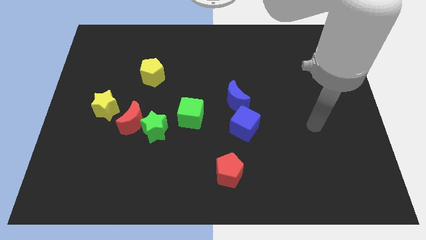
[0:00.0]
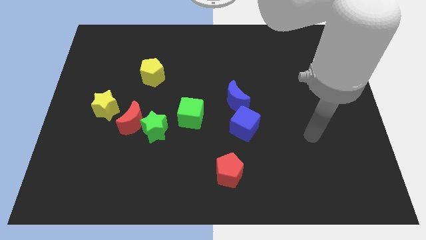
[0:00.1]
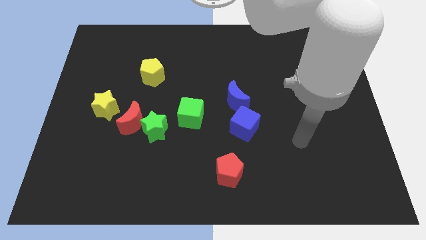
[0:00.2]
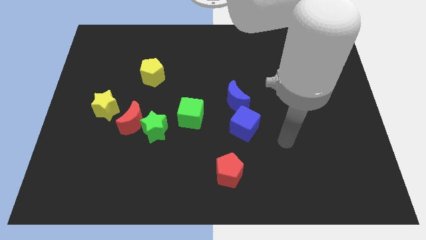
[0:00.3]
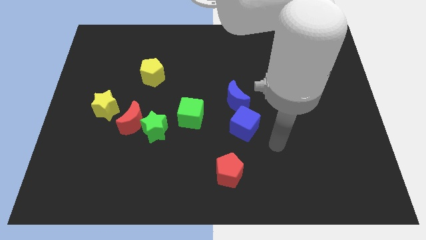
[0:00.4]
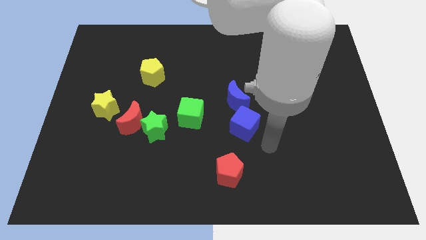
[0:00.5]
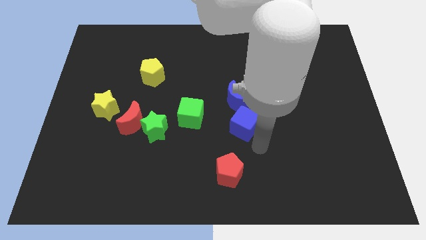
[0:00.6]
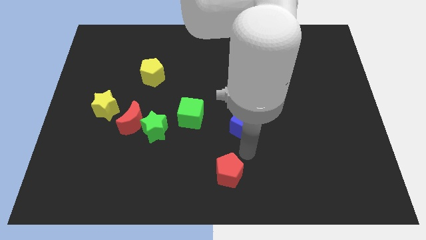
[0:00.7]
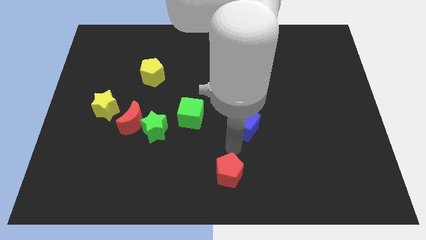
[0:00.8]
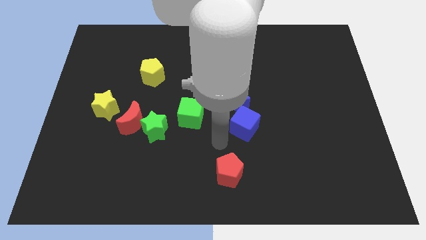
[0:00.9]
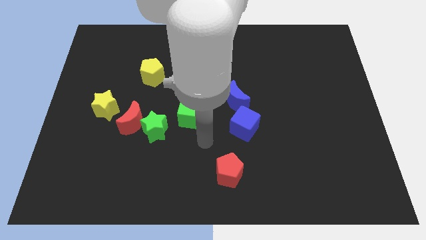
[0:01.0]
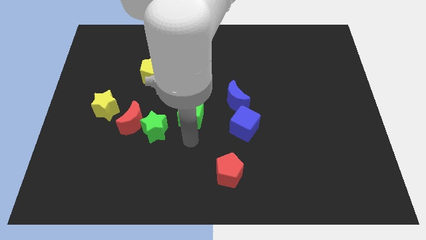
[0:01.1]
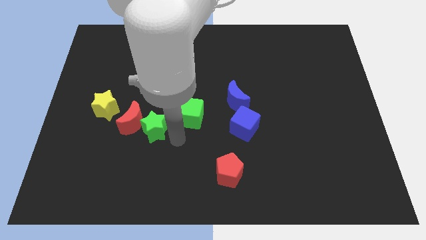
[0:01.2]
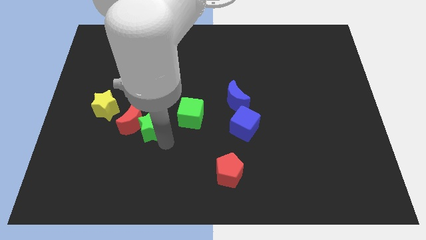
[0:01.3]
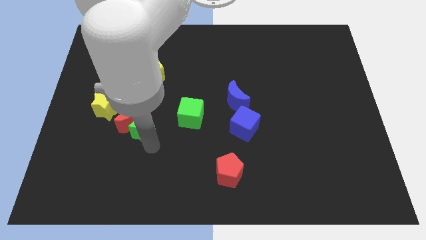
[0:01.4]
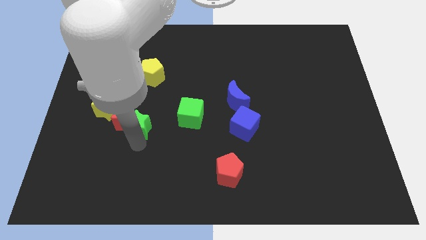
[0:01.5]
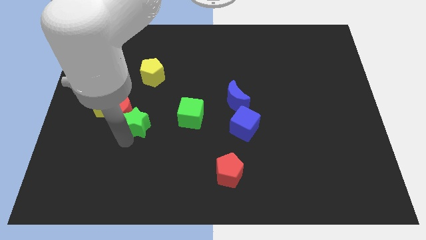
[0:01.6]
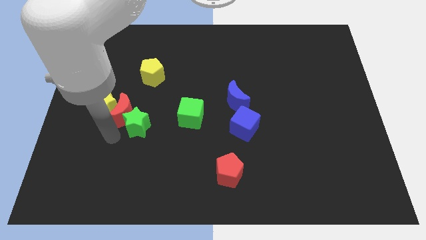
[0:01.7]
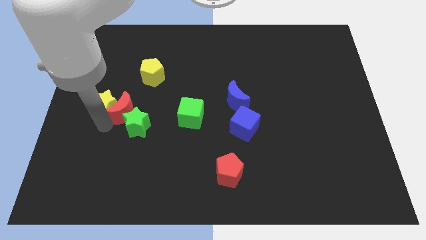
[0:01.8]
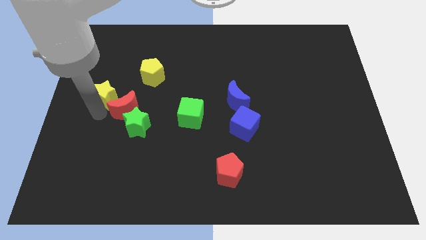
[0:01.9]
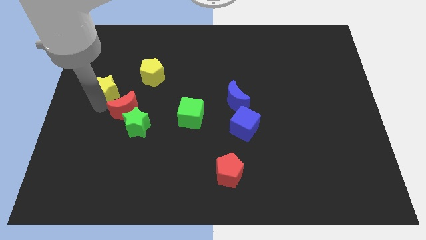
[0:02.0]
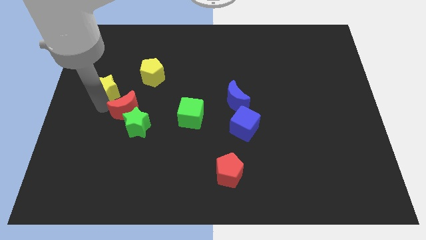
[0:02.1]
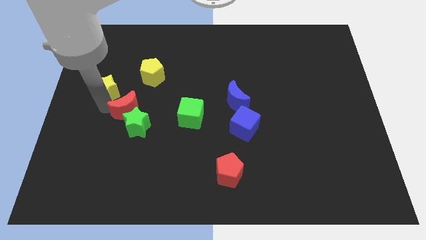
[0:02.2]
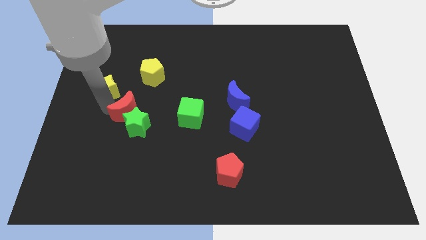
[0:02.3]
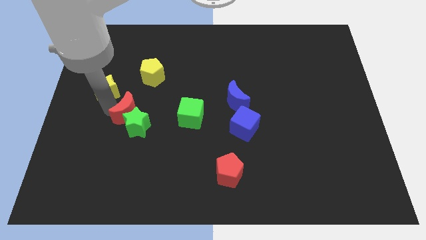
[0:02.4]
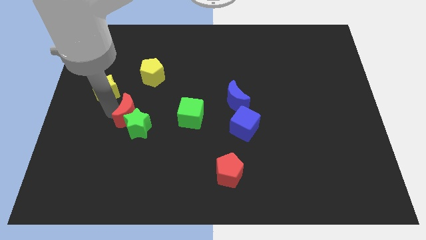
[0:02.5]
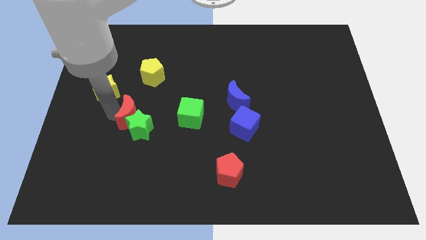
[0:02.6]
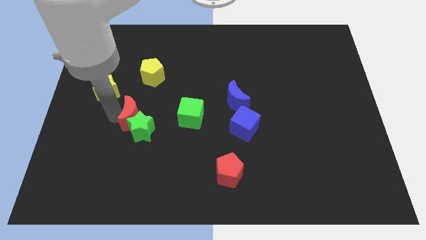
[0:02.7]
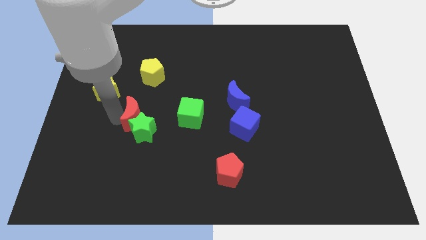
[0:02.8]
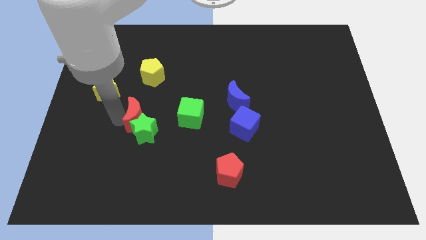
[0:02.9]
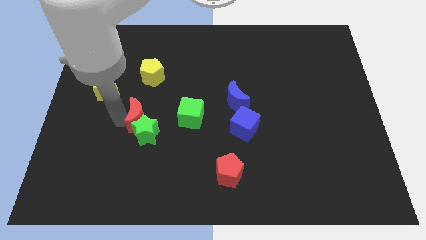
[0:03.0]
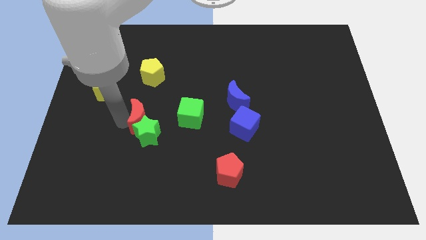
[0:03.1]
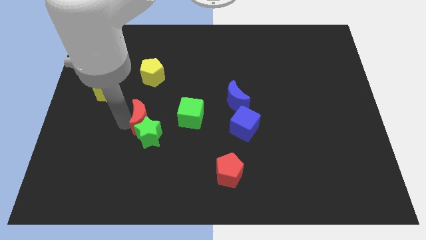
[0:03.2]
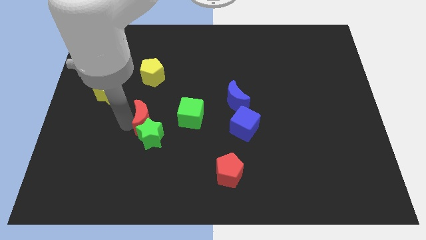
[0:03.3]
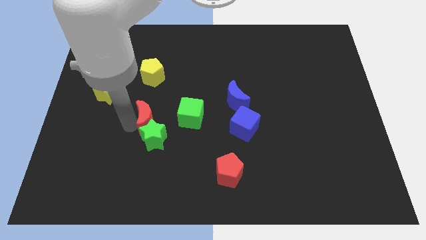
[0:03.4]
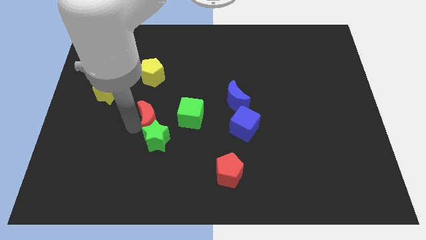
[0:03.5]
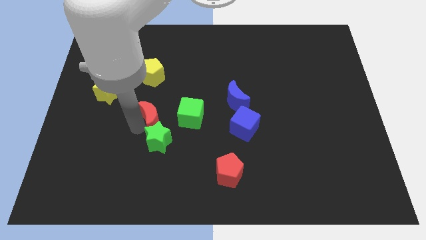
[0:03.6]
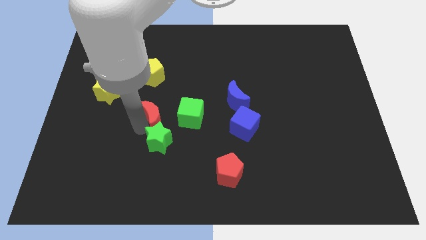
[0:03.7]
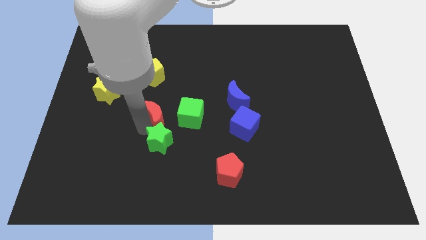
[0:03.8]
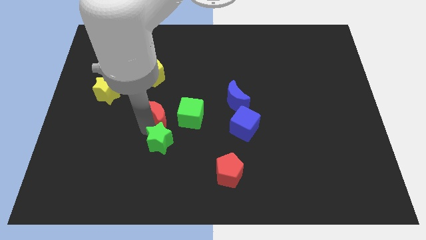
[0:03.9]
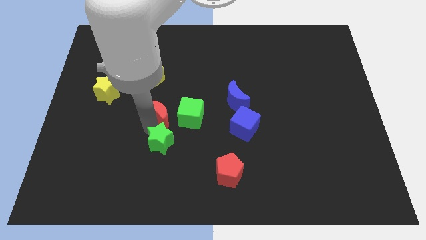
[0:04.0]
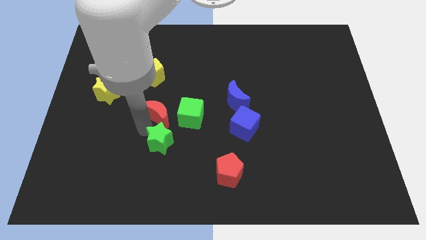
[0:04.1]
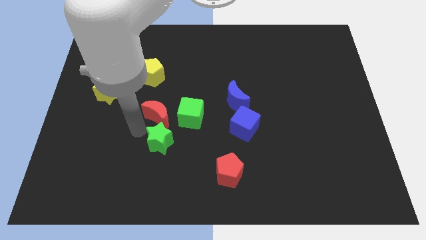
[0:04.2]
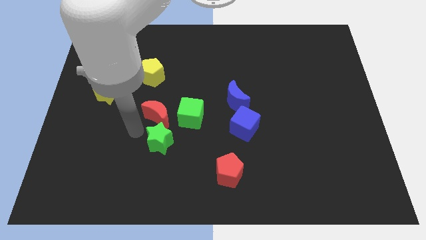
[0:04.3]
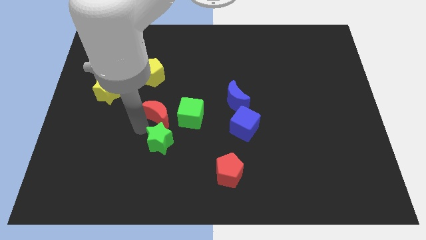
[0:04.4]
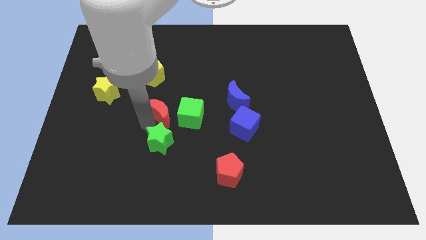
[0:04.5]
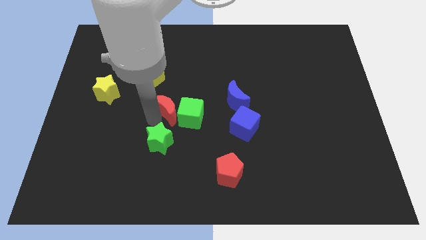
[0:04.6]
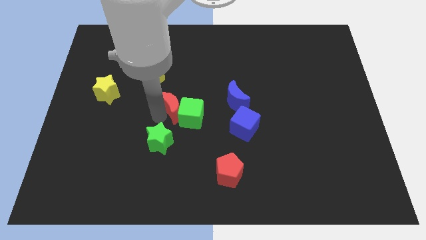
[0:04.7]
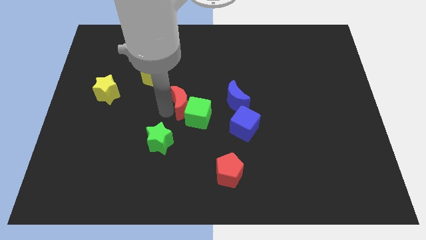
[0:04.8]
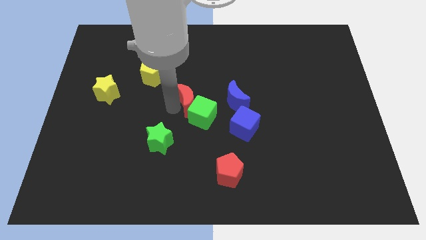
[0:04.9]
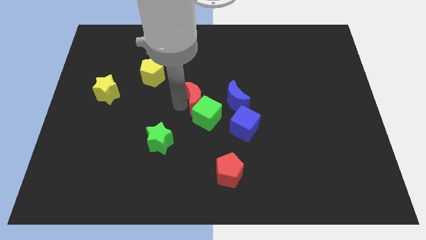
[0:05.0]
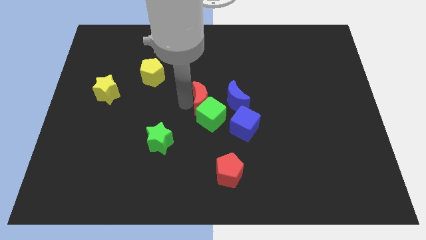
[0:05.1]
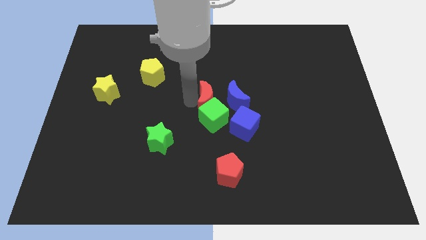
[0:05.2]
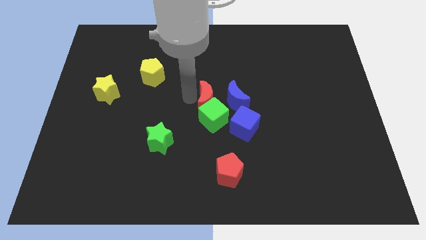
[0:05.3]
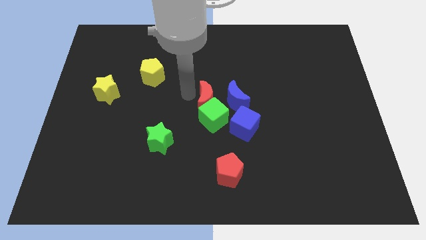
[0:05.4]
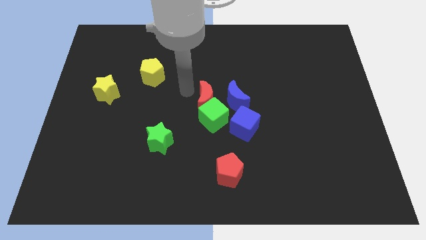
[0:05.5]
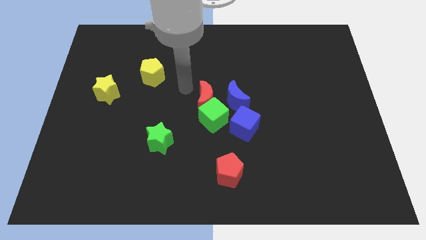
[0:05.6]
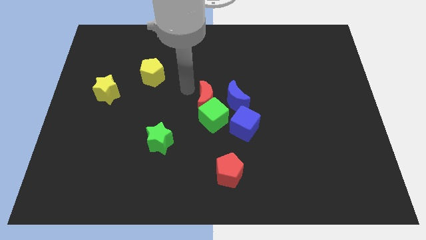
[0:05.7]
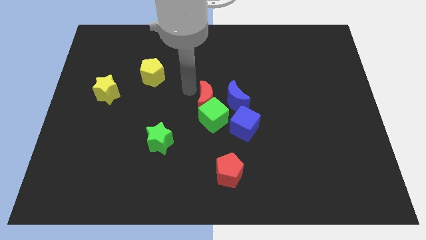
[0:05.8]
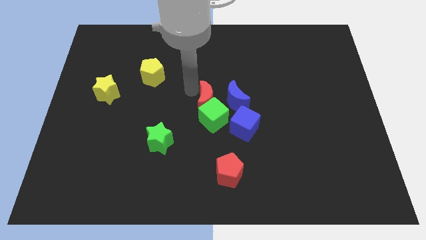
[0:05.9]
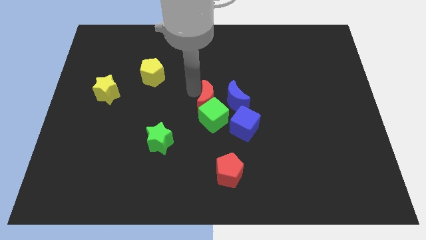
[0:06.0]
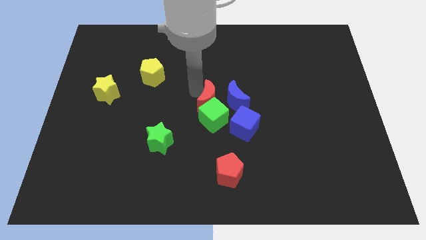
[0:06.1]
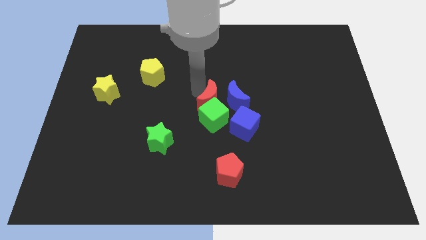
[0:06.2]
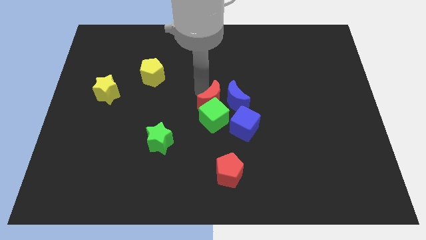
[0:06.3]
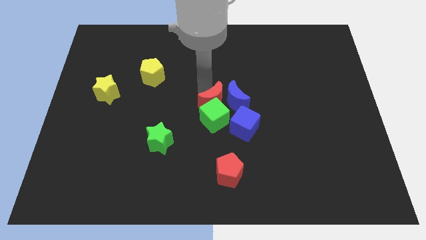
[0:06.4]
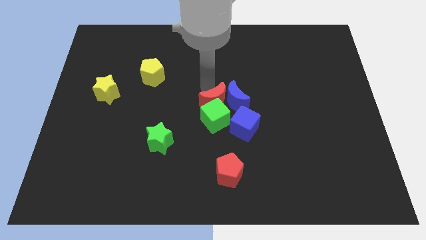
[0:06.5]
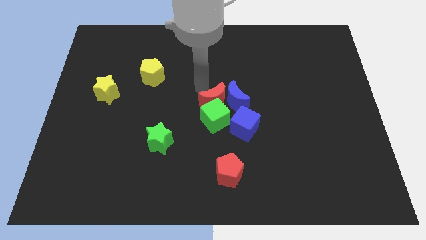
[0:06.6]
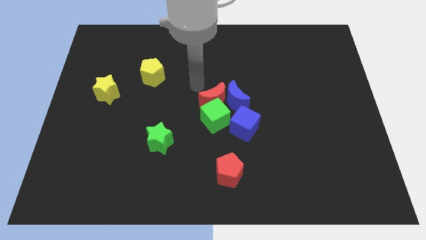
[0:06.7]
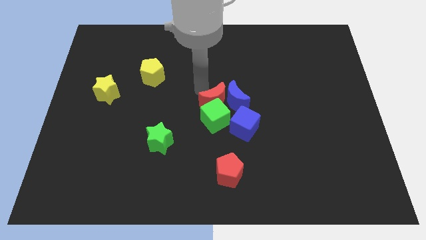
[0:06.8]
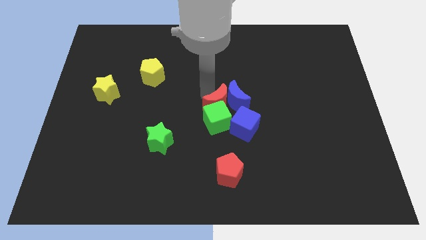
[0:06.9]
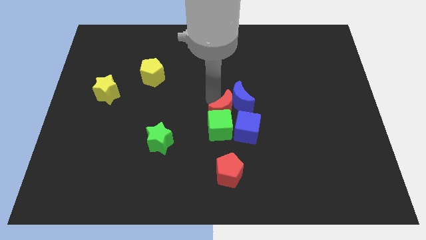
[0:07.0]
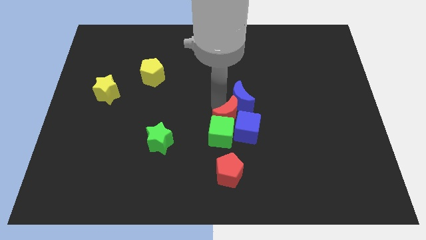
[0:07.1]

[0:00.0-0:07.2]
slide the red moon towards the blue cube
